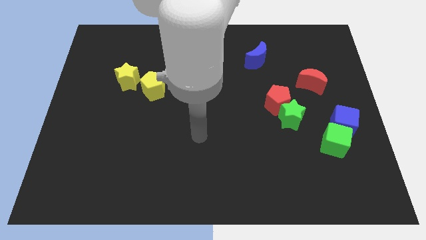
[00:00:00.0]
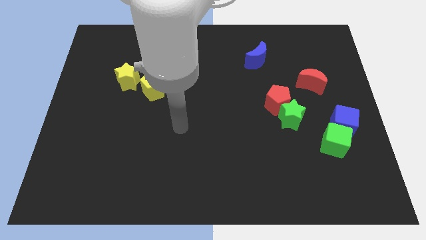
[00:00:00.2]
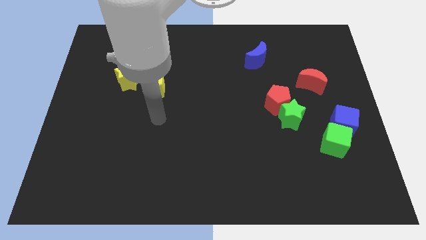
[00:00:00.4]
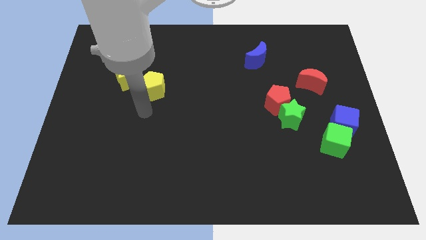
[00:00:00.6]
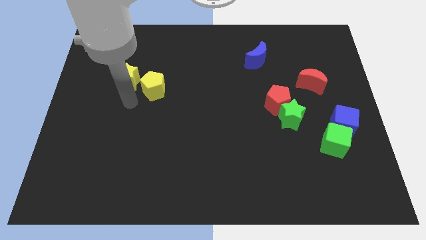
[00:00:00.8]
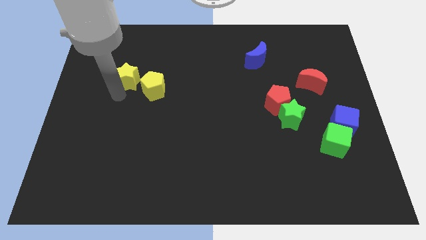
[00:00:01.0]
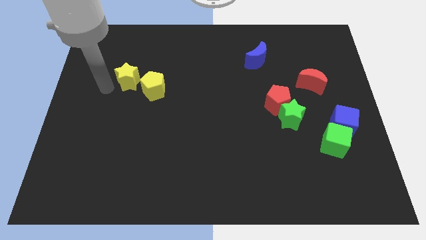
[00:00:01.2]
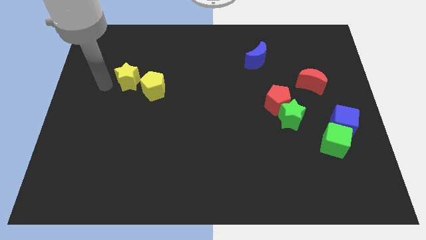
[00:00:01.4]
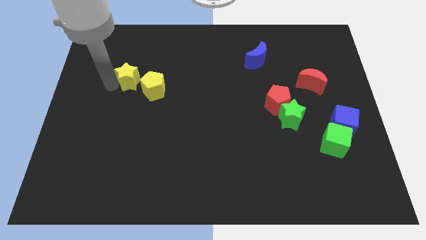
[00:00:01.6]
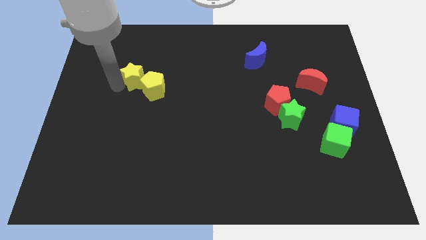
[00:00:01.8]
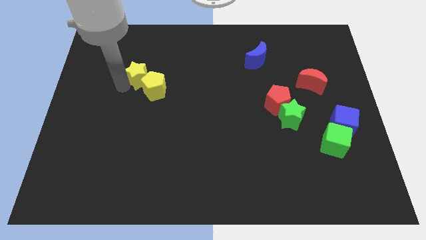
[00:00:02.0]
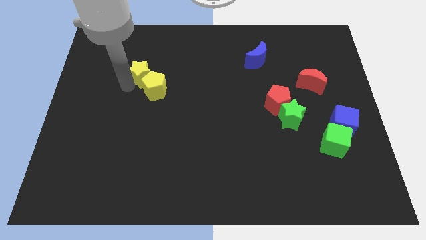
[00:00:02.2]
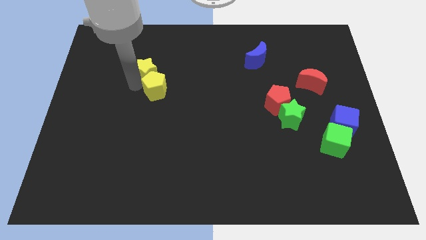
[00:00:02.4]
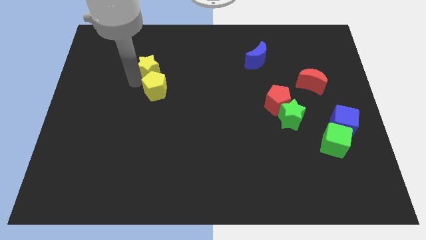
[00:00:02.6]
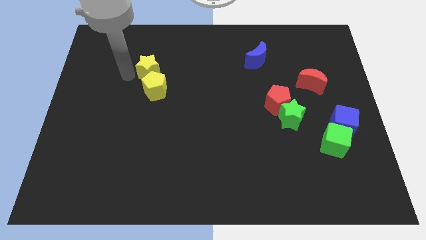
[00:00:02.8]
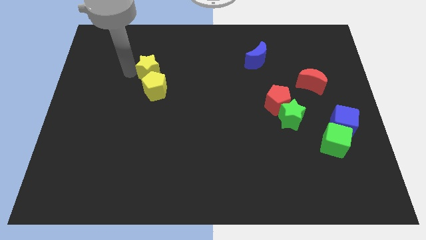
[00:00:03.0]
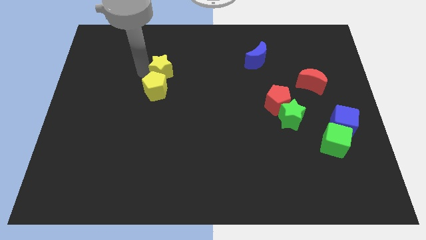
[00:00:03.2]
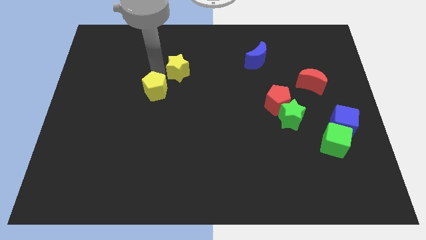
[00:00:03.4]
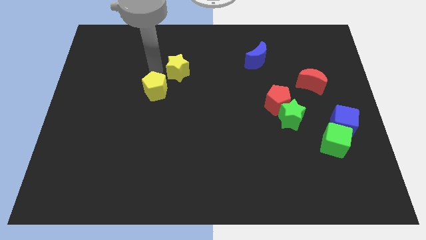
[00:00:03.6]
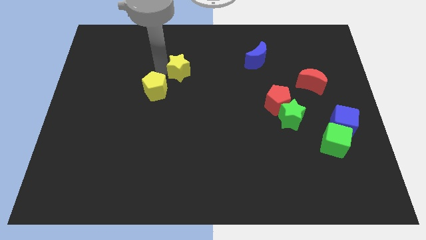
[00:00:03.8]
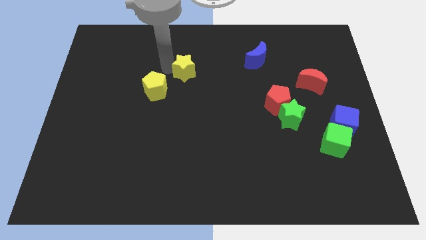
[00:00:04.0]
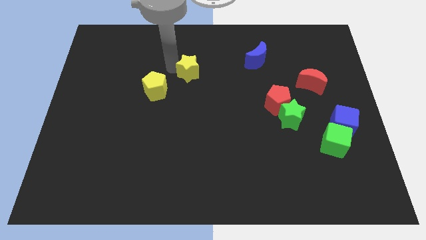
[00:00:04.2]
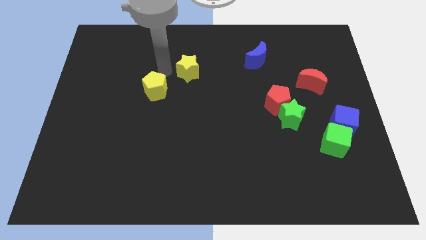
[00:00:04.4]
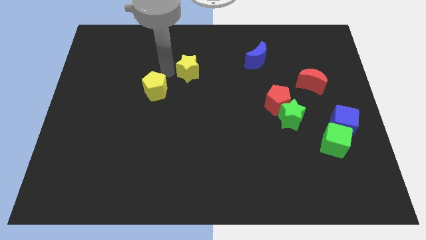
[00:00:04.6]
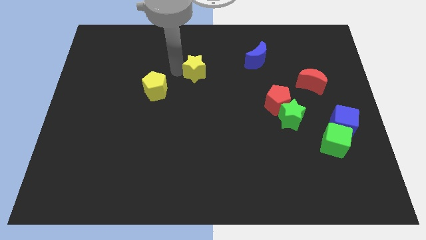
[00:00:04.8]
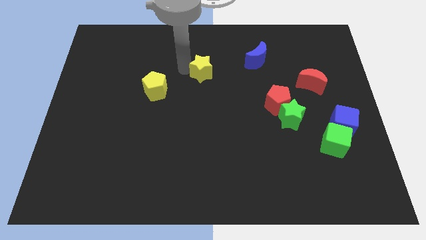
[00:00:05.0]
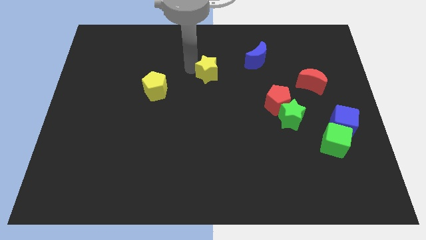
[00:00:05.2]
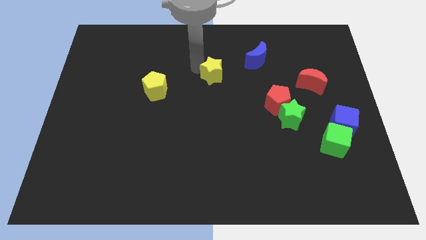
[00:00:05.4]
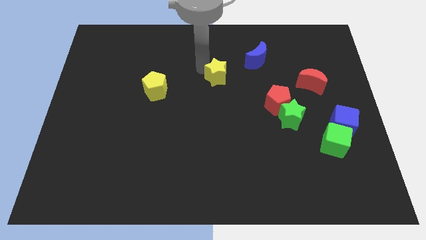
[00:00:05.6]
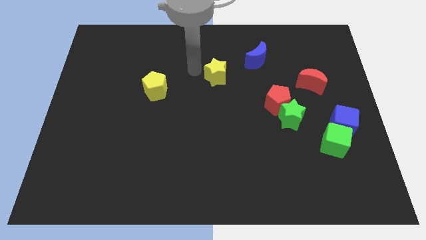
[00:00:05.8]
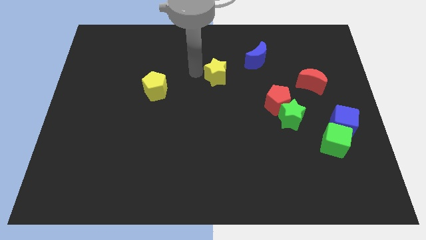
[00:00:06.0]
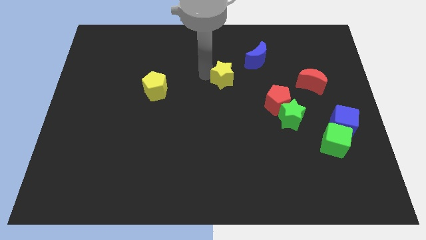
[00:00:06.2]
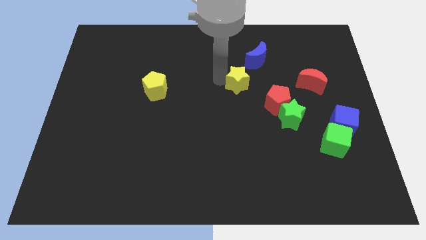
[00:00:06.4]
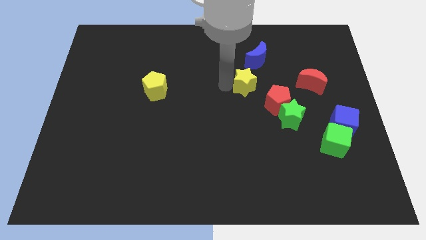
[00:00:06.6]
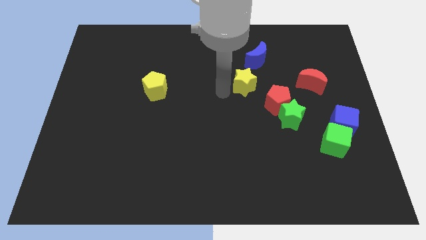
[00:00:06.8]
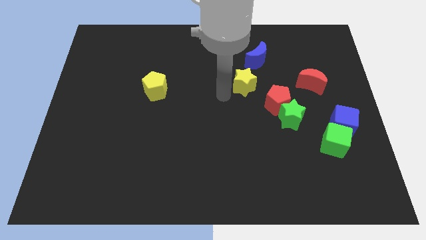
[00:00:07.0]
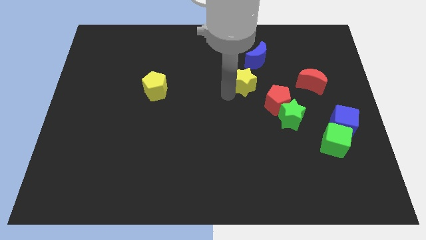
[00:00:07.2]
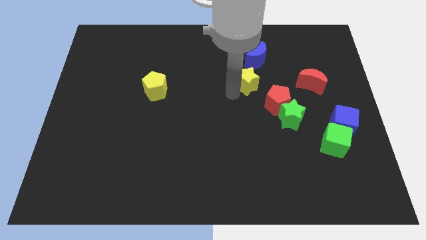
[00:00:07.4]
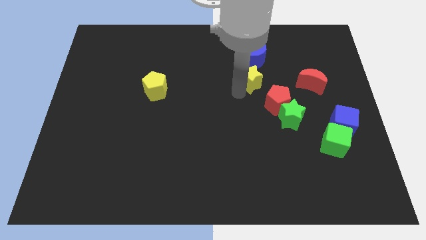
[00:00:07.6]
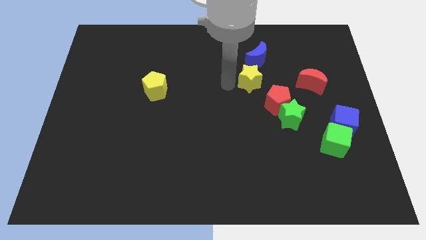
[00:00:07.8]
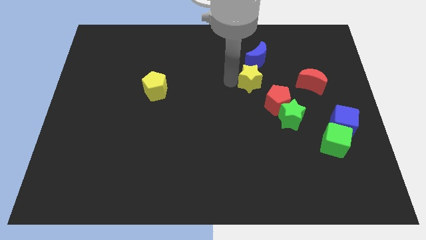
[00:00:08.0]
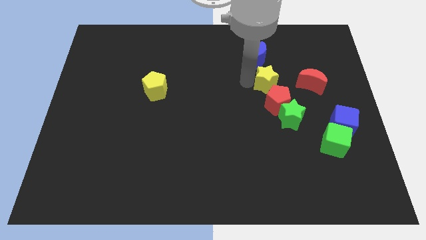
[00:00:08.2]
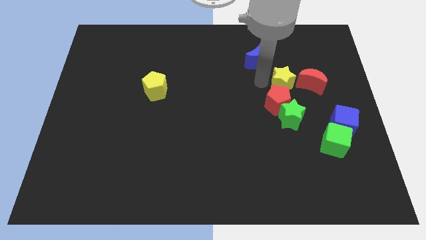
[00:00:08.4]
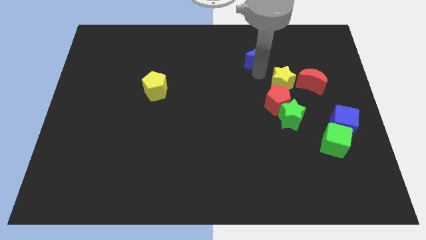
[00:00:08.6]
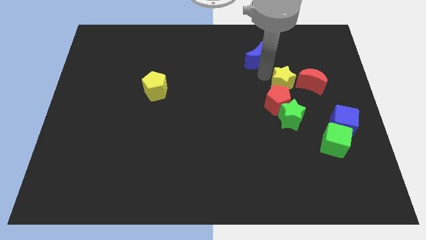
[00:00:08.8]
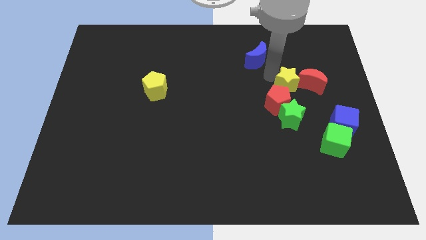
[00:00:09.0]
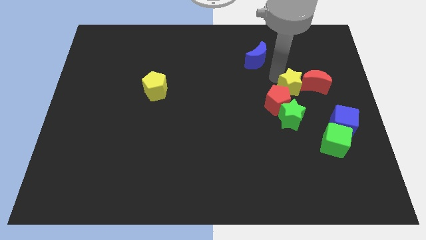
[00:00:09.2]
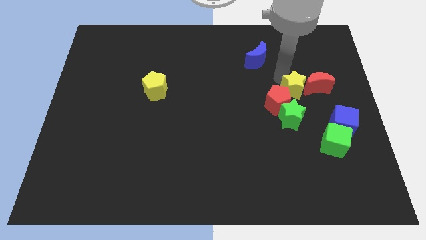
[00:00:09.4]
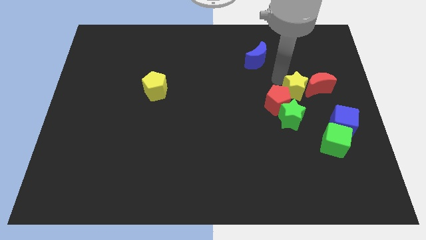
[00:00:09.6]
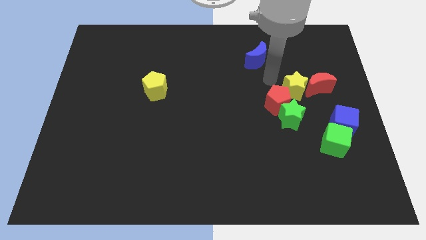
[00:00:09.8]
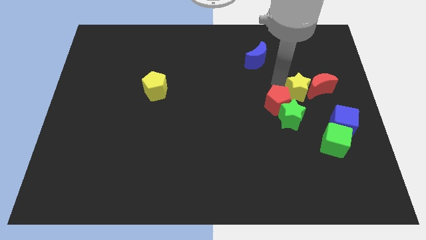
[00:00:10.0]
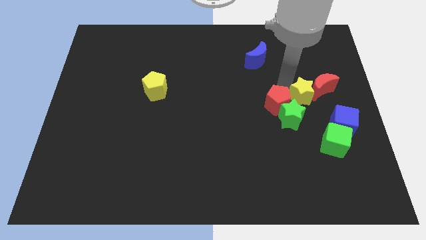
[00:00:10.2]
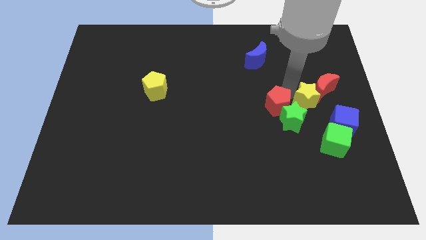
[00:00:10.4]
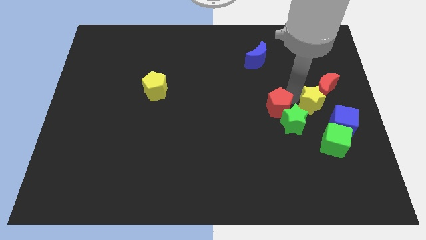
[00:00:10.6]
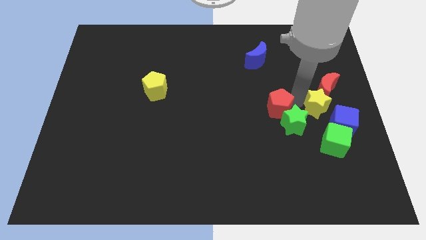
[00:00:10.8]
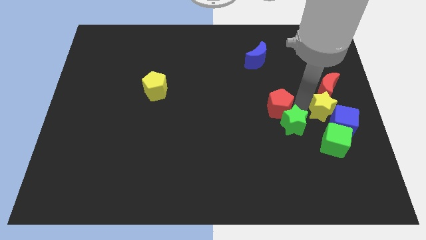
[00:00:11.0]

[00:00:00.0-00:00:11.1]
push the yellow star to the right side of the board
